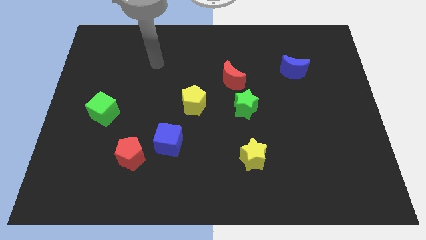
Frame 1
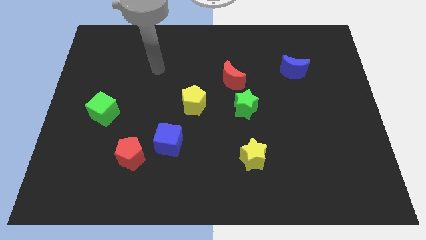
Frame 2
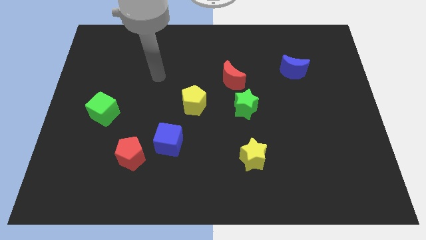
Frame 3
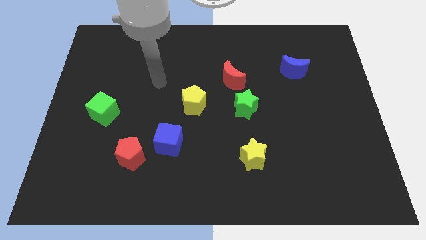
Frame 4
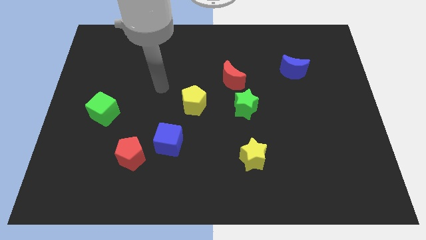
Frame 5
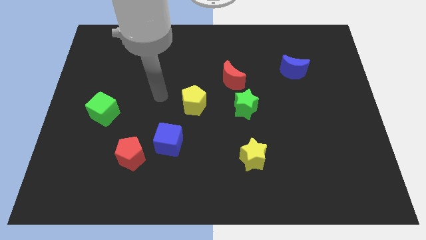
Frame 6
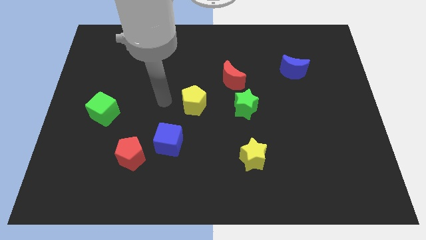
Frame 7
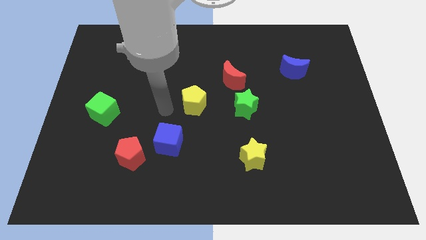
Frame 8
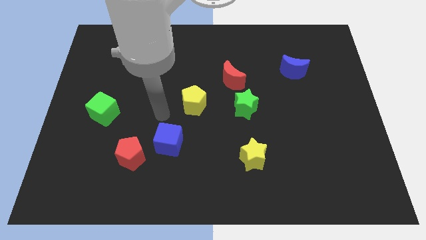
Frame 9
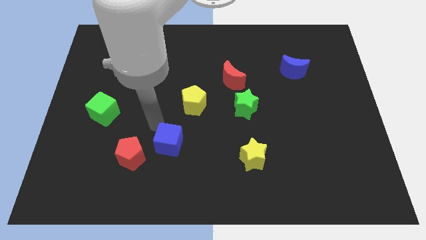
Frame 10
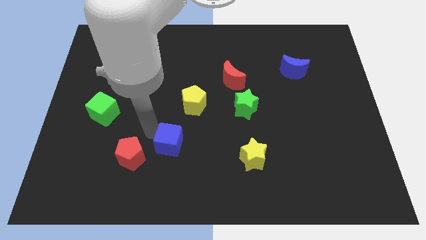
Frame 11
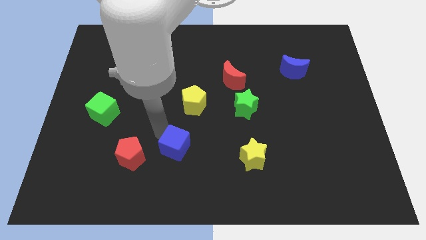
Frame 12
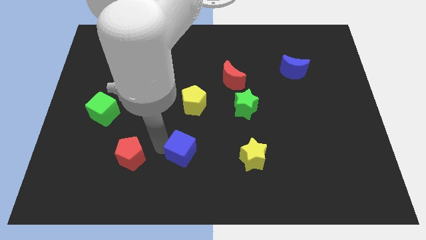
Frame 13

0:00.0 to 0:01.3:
separate the red pentagon from the blue cube

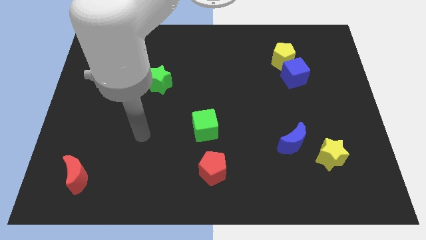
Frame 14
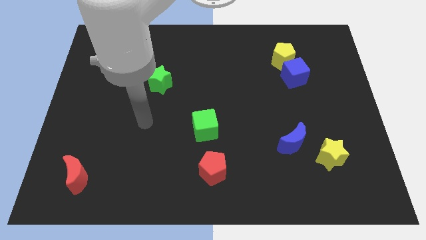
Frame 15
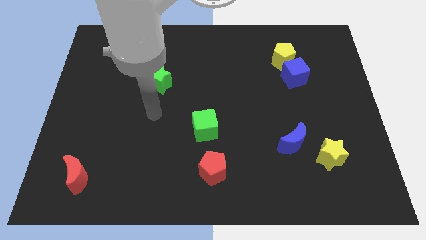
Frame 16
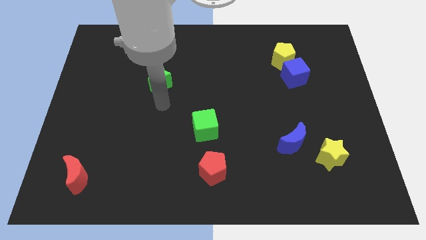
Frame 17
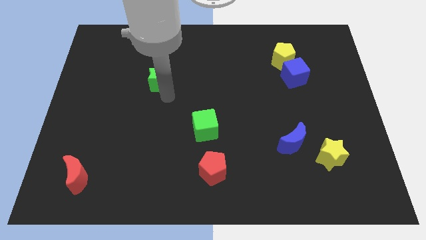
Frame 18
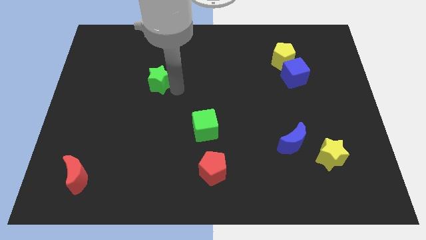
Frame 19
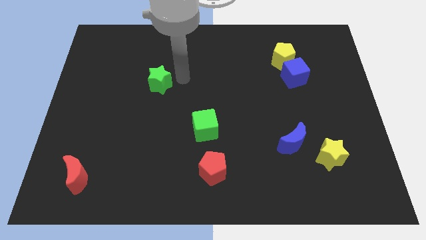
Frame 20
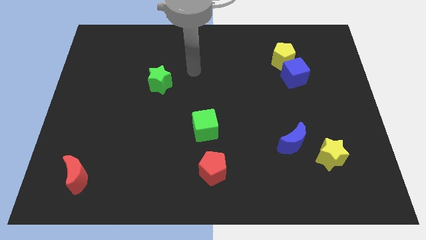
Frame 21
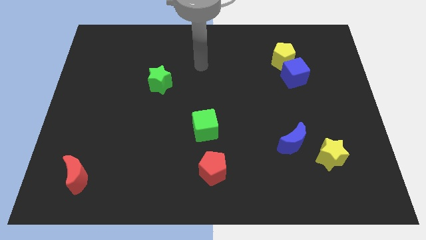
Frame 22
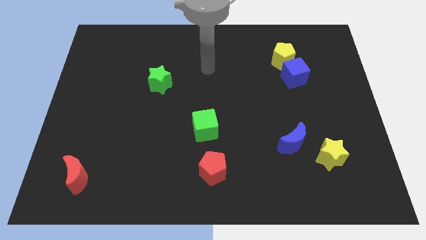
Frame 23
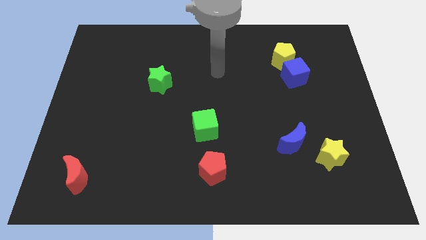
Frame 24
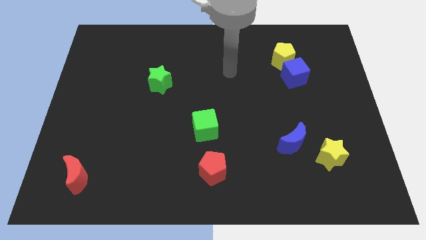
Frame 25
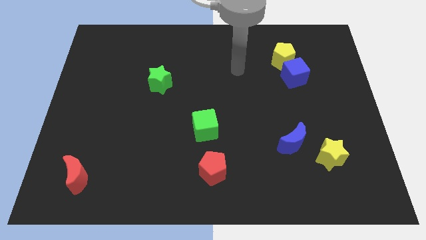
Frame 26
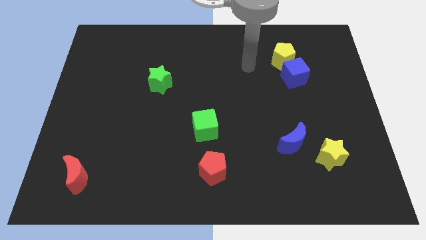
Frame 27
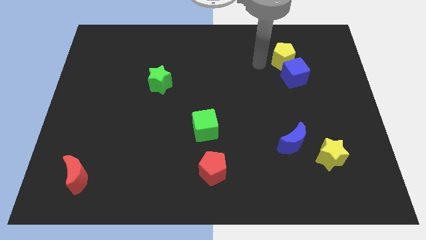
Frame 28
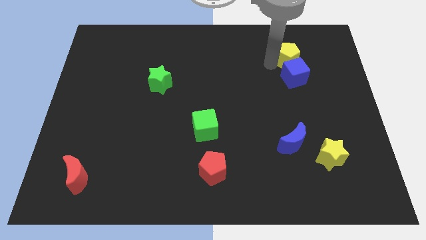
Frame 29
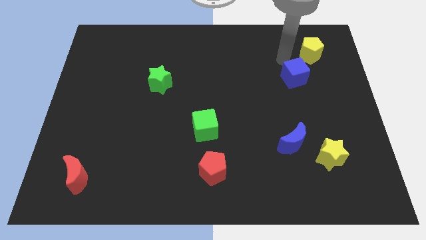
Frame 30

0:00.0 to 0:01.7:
move the blue cube away from the yellow pentagon

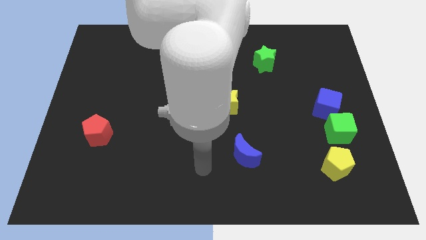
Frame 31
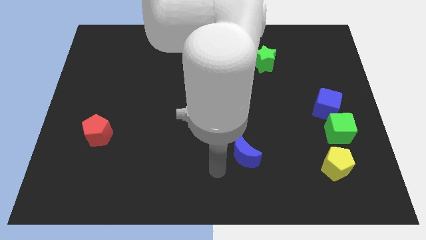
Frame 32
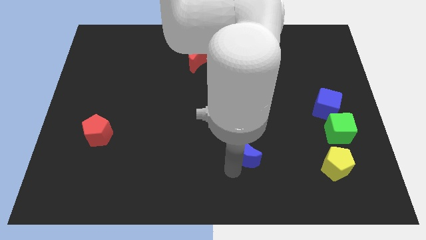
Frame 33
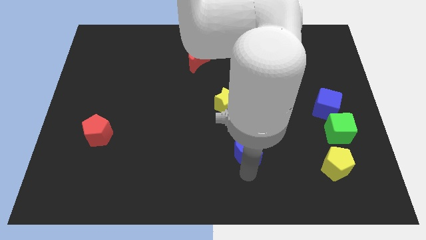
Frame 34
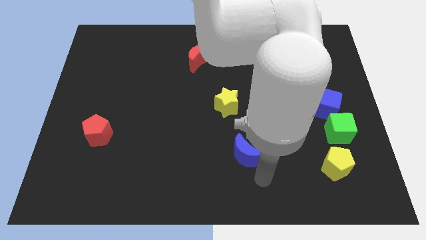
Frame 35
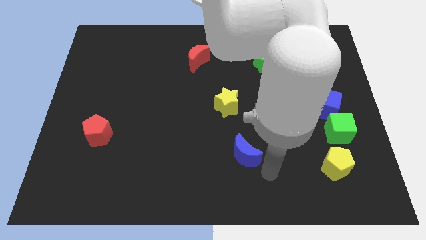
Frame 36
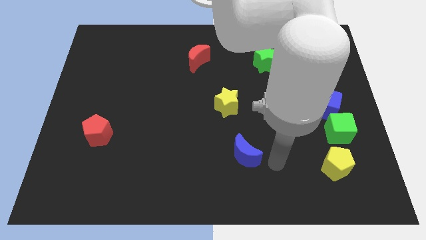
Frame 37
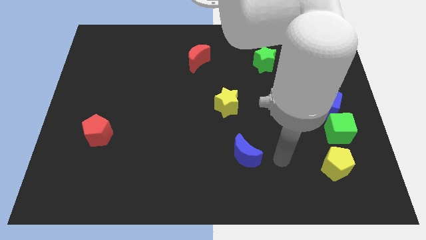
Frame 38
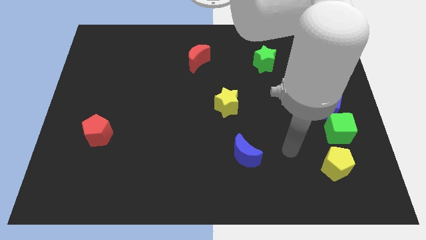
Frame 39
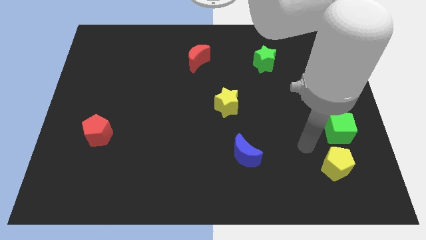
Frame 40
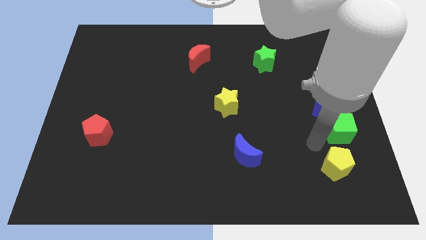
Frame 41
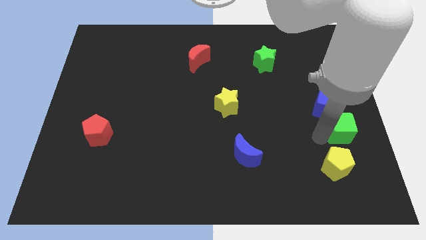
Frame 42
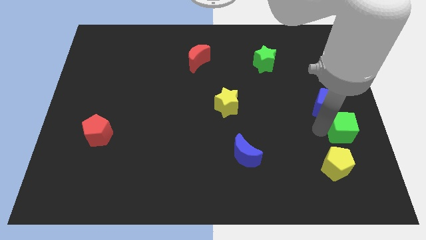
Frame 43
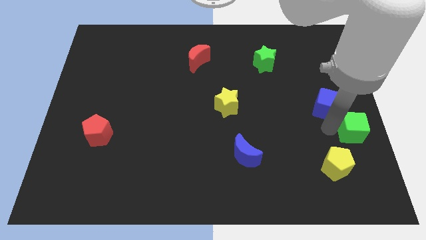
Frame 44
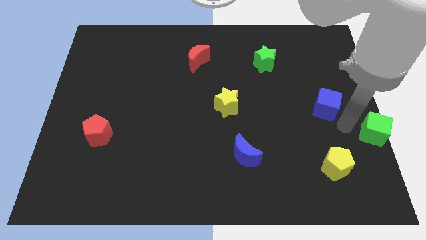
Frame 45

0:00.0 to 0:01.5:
pull the blue cube apart from the green cube

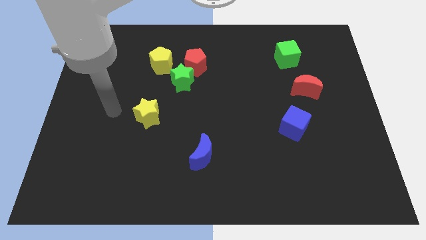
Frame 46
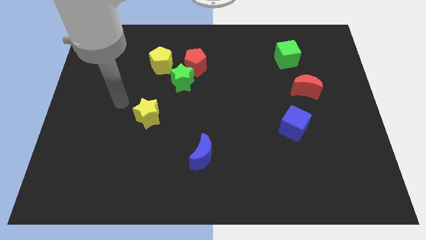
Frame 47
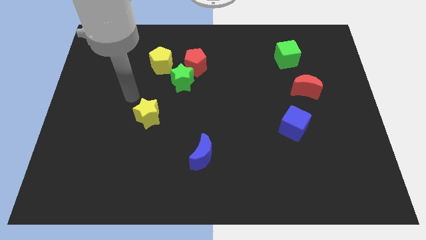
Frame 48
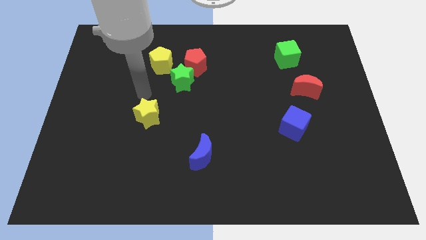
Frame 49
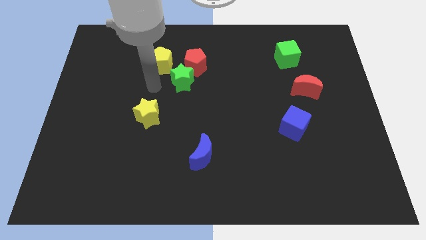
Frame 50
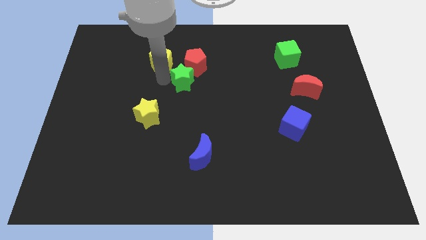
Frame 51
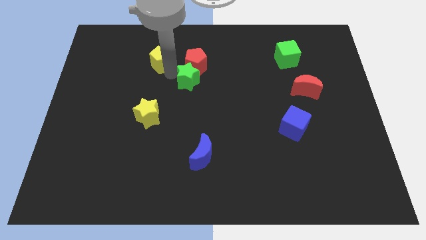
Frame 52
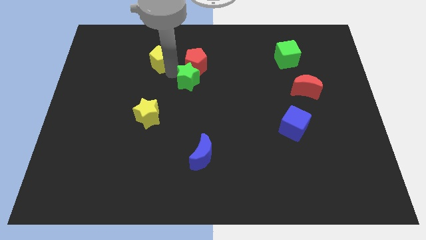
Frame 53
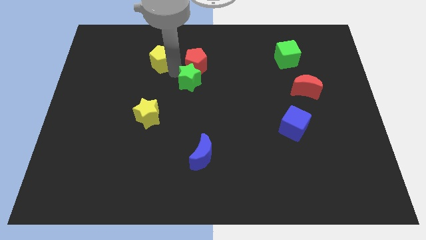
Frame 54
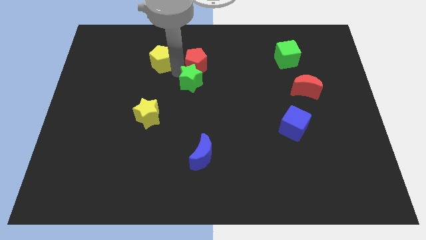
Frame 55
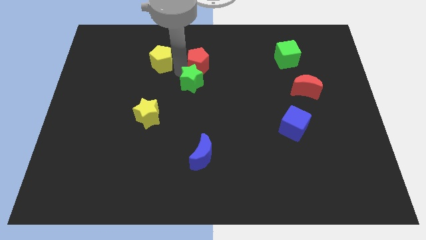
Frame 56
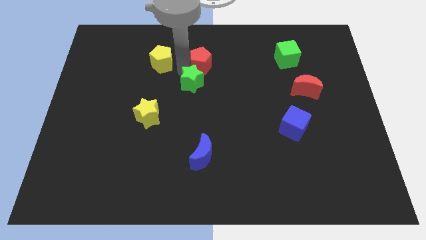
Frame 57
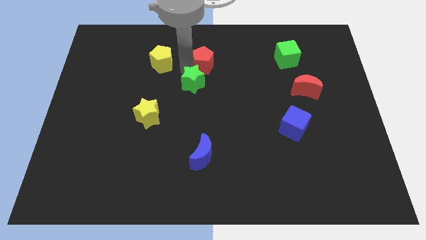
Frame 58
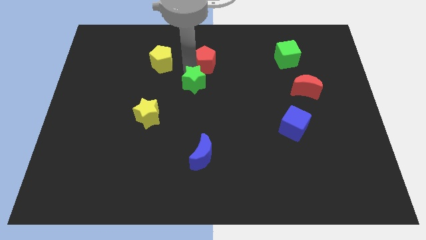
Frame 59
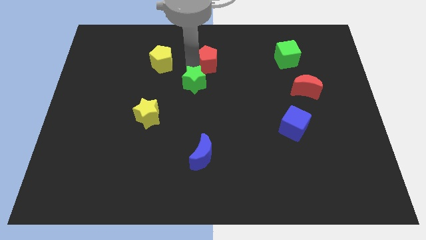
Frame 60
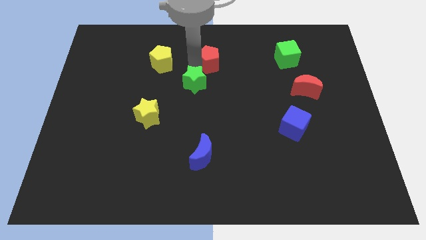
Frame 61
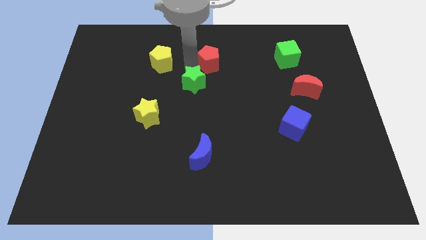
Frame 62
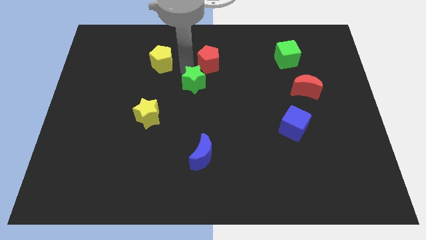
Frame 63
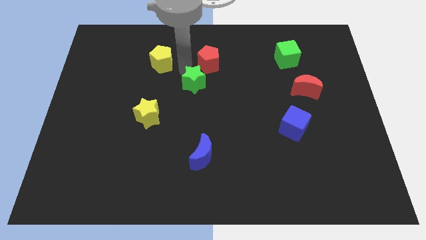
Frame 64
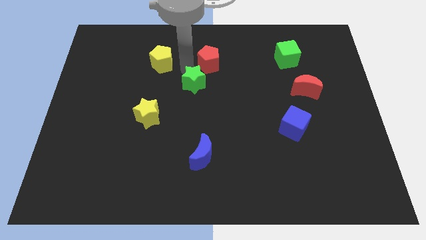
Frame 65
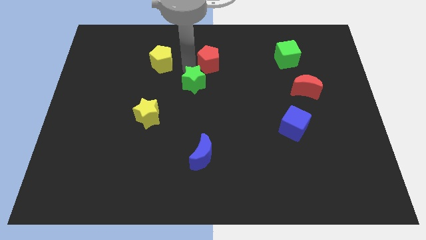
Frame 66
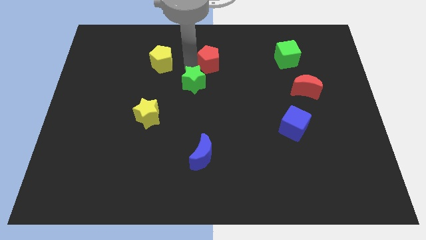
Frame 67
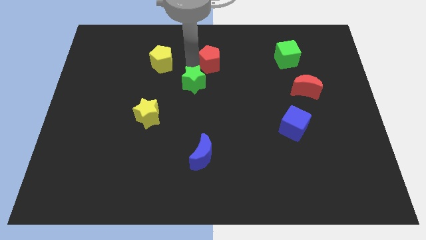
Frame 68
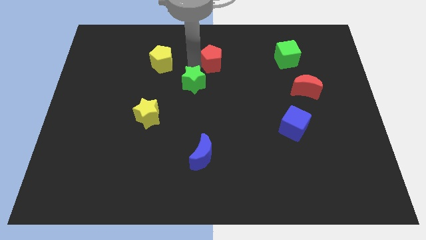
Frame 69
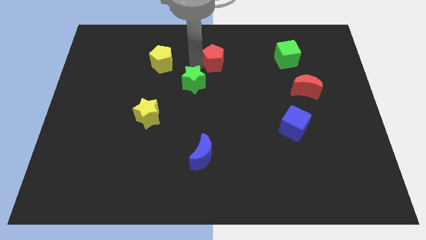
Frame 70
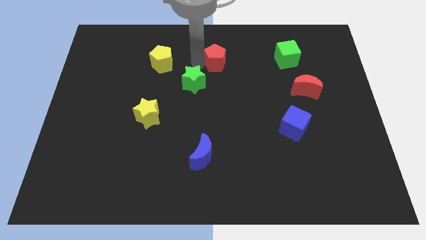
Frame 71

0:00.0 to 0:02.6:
pull the red pentagon apart from the green star and yellow pentagon

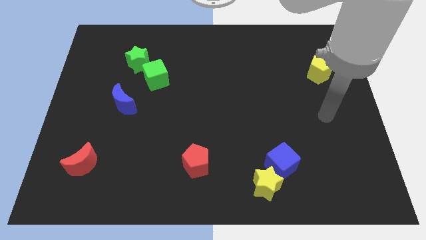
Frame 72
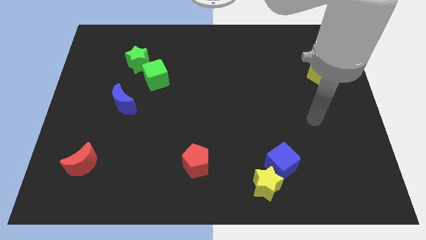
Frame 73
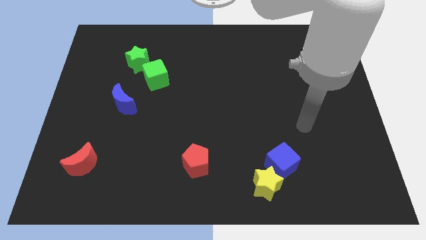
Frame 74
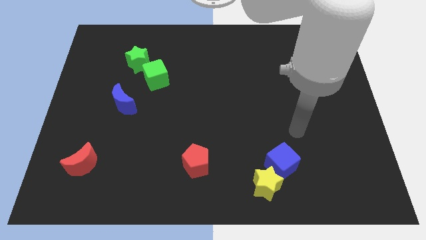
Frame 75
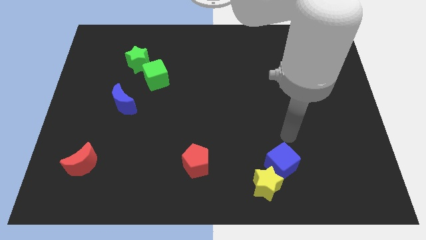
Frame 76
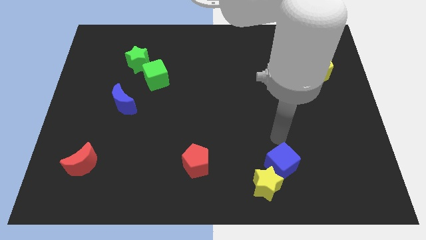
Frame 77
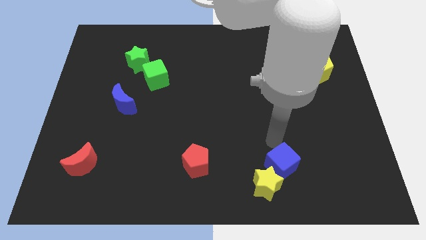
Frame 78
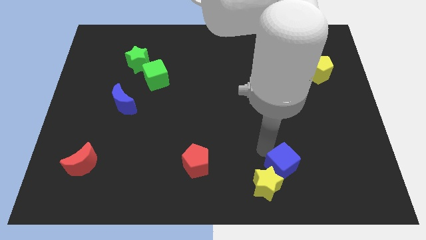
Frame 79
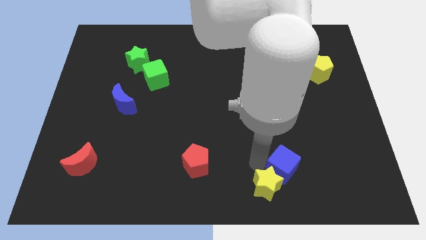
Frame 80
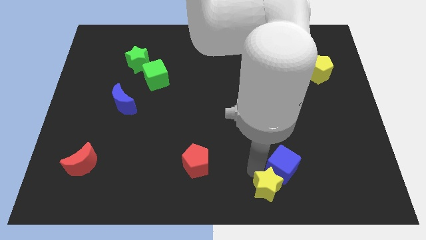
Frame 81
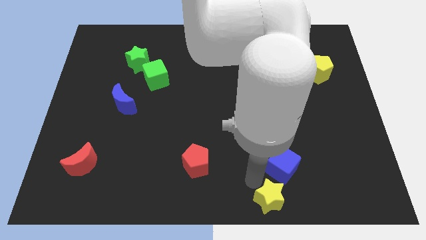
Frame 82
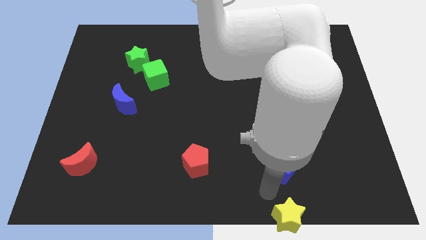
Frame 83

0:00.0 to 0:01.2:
pull the blue cube apart from the yellow star

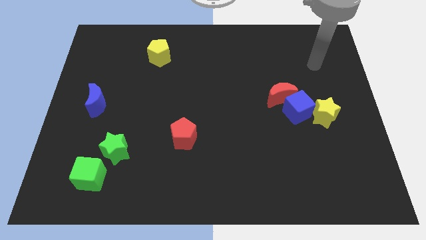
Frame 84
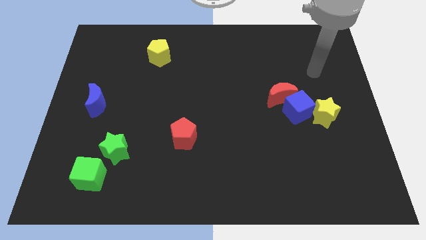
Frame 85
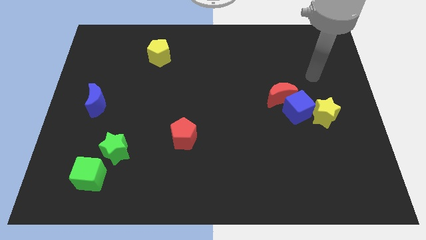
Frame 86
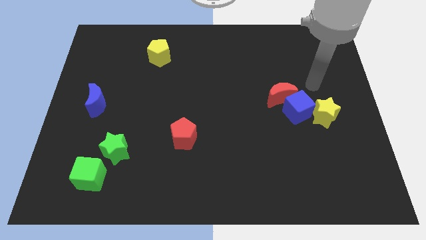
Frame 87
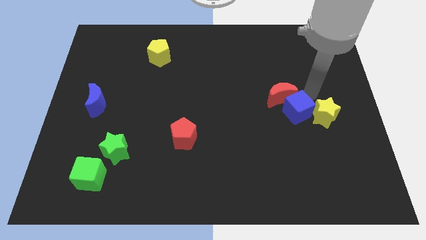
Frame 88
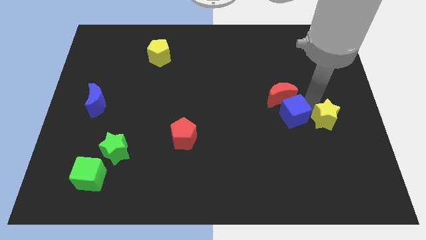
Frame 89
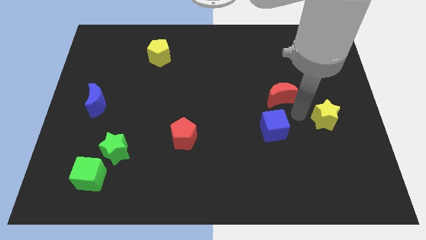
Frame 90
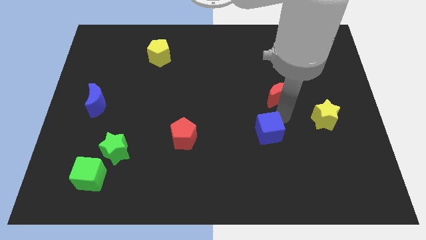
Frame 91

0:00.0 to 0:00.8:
separate the red moon from the blue cube
